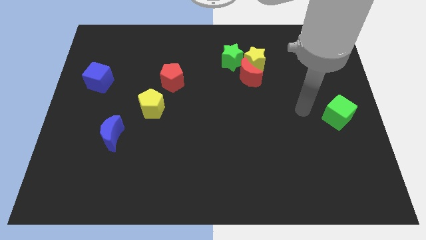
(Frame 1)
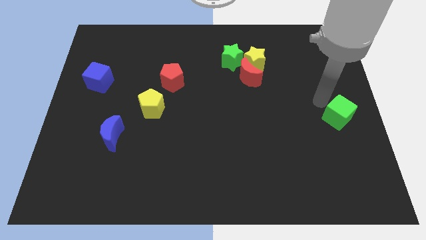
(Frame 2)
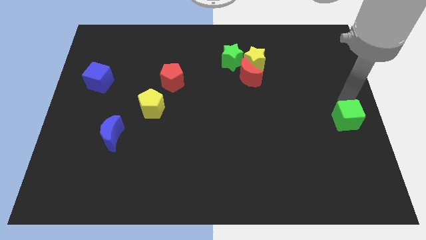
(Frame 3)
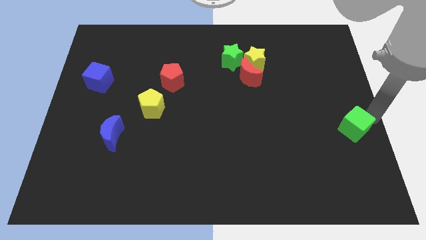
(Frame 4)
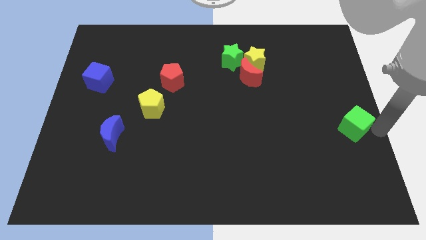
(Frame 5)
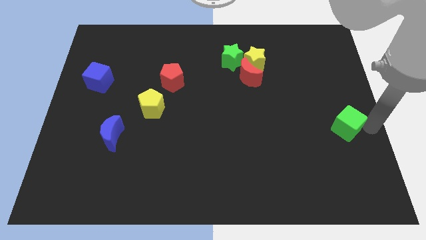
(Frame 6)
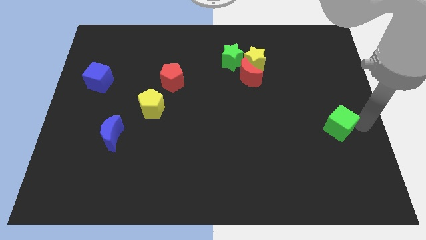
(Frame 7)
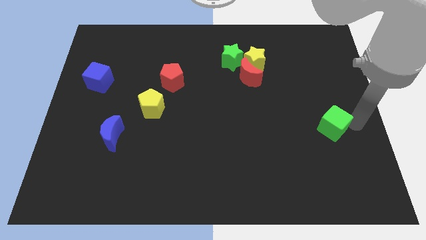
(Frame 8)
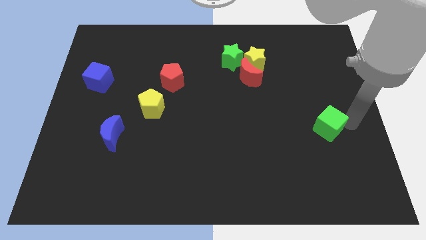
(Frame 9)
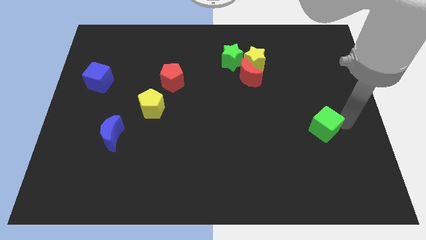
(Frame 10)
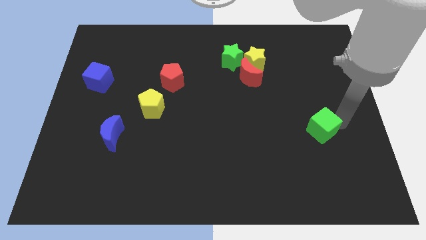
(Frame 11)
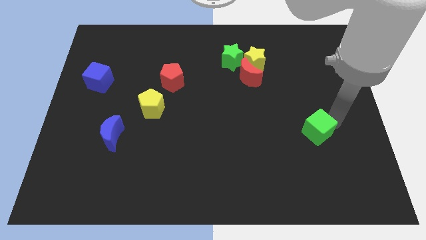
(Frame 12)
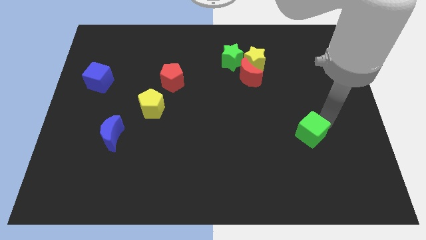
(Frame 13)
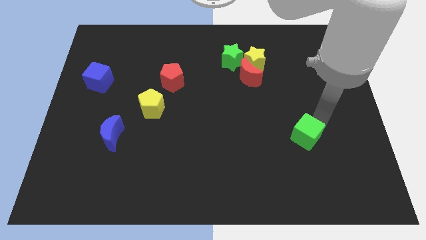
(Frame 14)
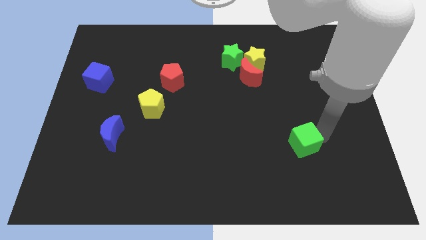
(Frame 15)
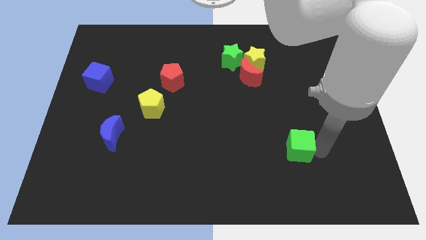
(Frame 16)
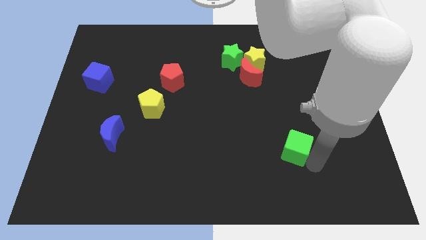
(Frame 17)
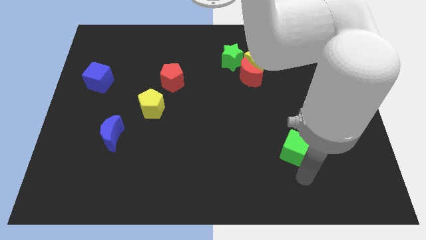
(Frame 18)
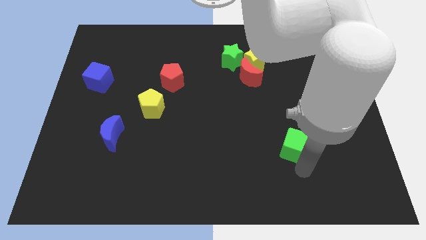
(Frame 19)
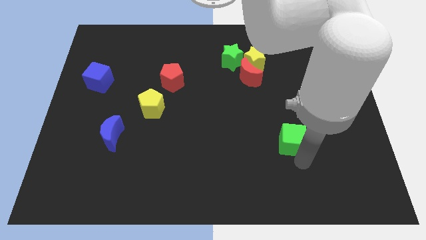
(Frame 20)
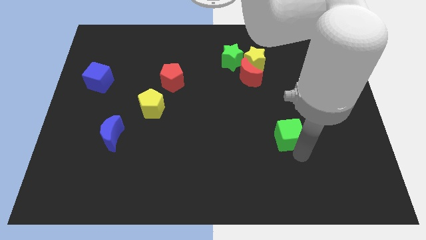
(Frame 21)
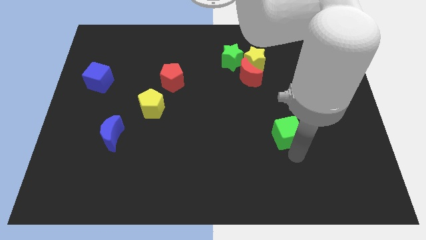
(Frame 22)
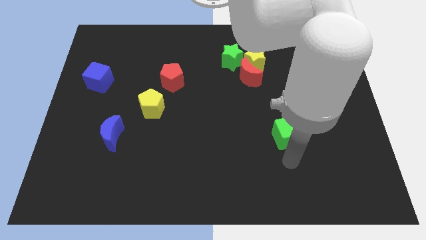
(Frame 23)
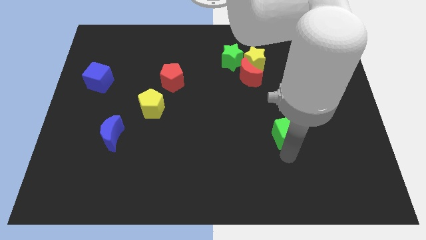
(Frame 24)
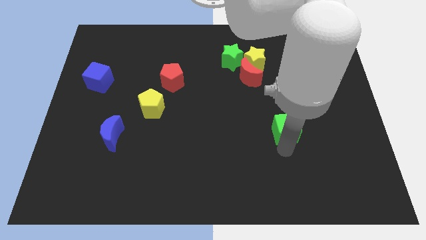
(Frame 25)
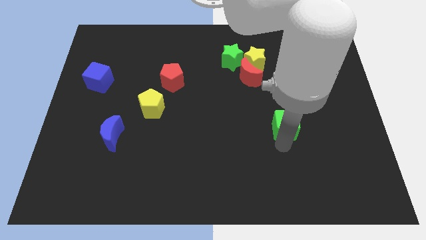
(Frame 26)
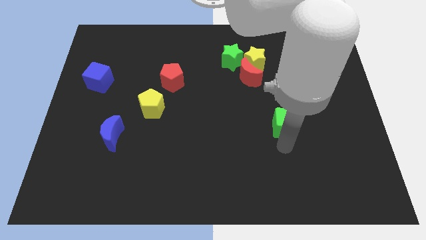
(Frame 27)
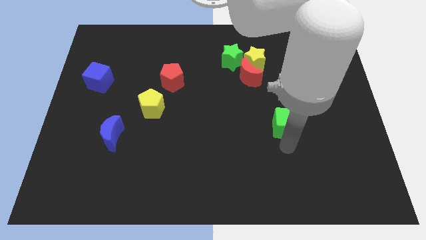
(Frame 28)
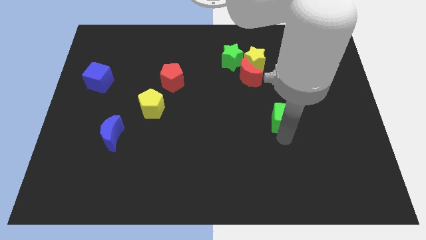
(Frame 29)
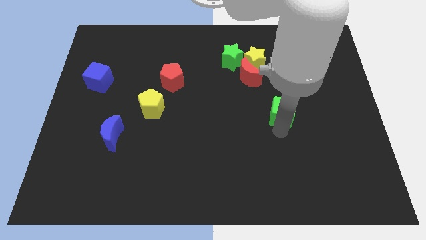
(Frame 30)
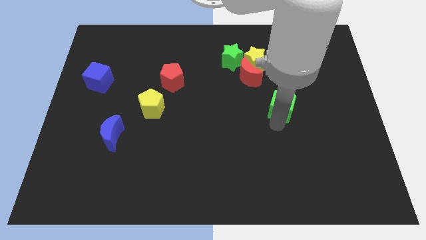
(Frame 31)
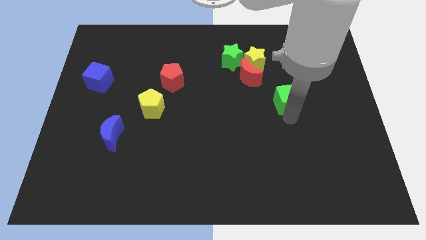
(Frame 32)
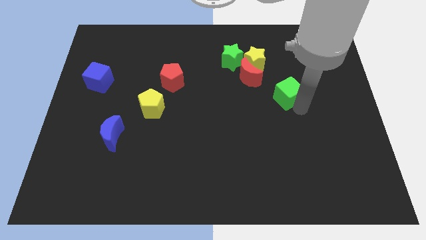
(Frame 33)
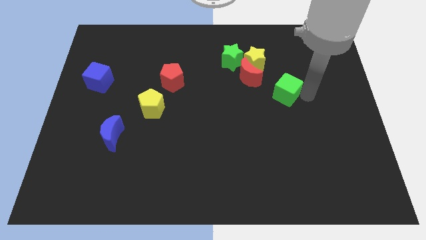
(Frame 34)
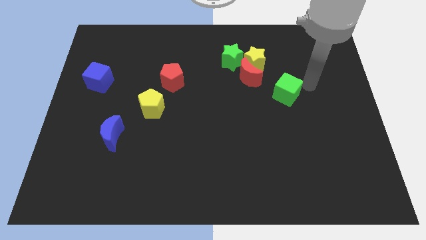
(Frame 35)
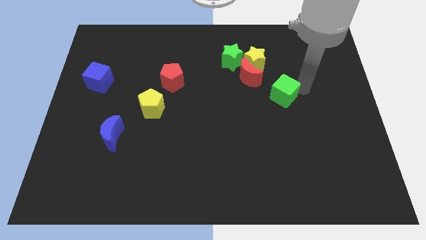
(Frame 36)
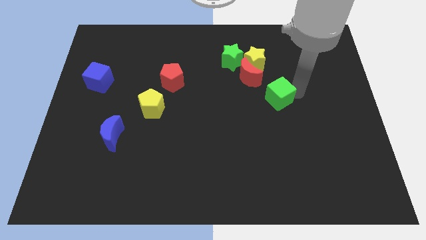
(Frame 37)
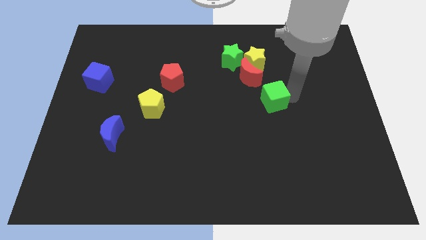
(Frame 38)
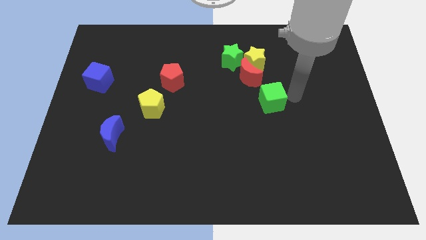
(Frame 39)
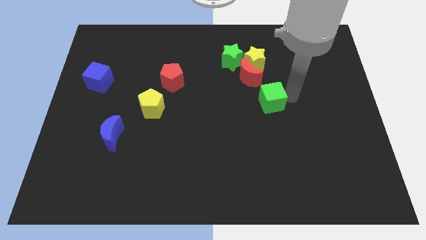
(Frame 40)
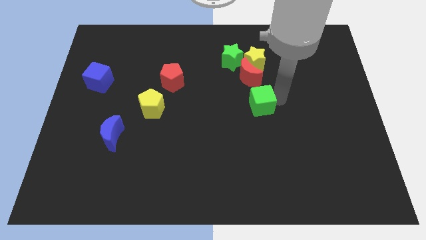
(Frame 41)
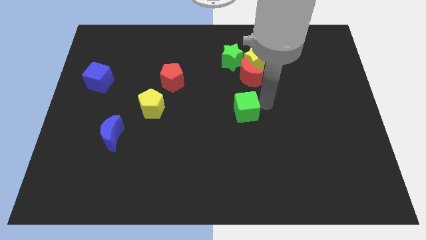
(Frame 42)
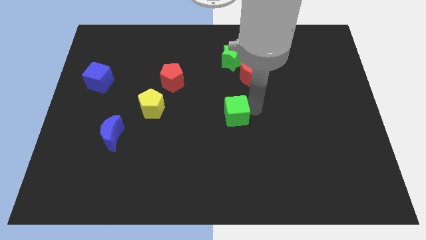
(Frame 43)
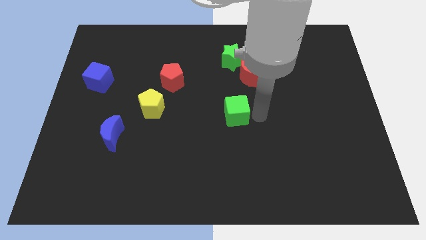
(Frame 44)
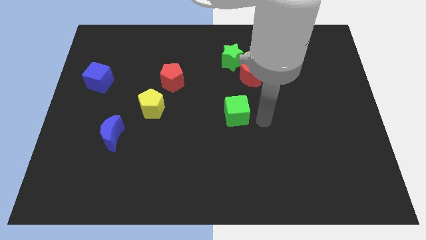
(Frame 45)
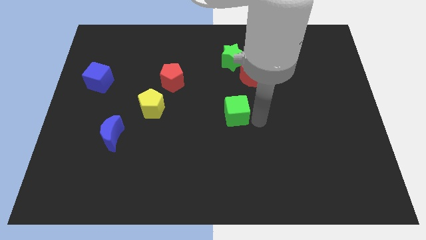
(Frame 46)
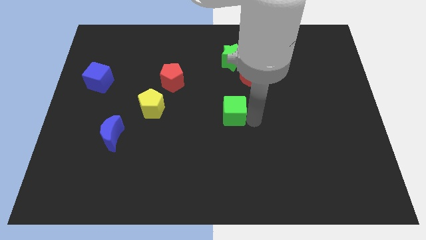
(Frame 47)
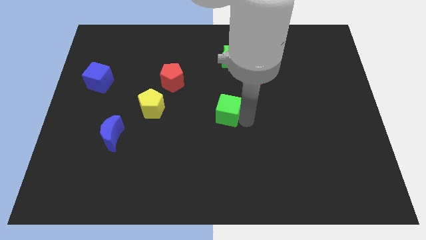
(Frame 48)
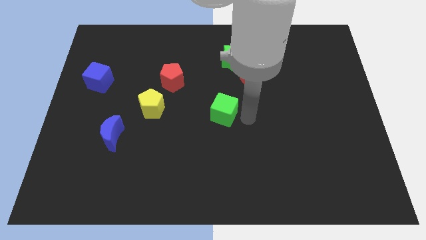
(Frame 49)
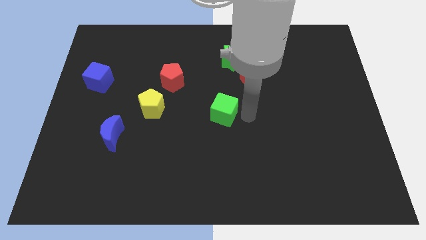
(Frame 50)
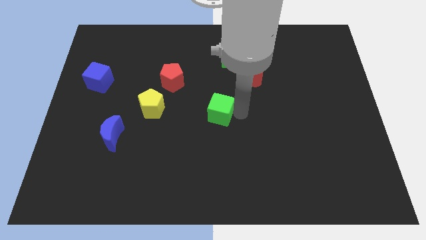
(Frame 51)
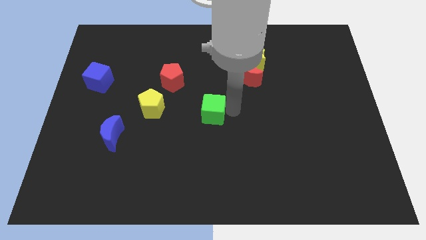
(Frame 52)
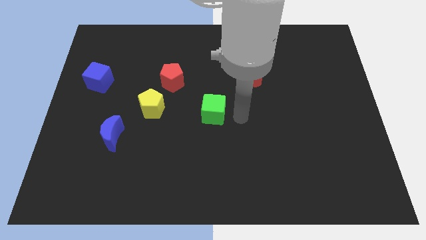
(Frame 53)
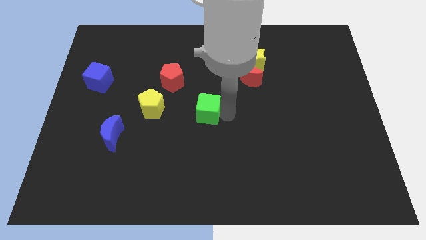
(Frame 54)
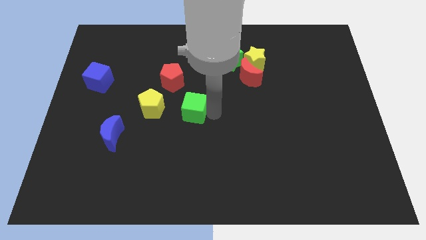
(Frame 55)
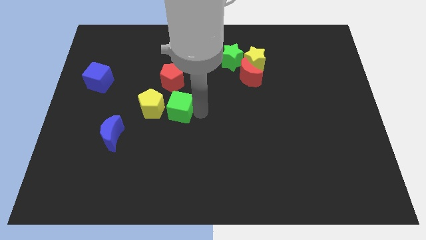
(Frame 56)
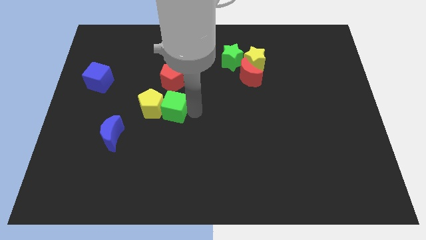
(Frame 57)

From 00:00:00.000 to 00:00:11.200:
move the green cube close to the yellow pentagon

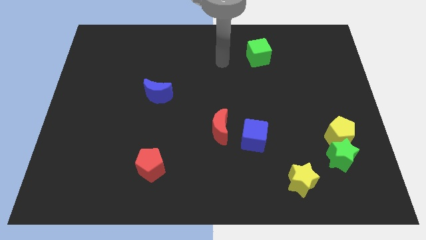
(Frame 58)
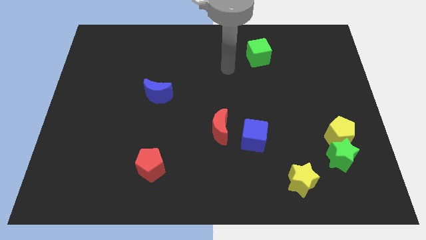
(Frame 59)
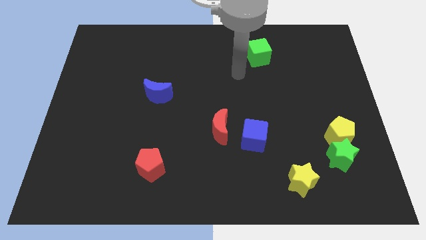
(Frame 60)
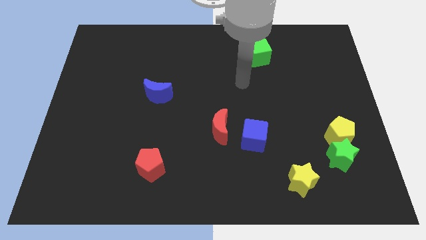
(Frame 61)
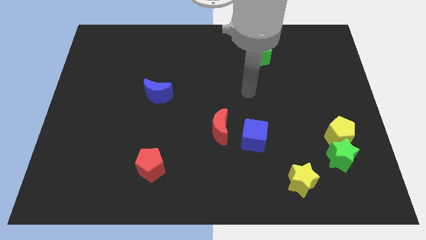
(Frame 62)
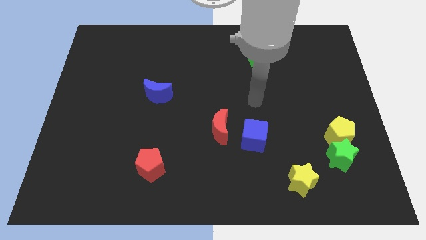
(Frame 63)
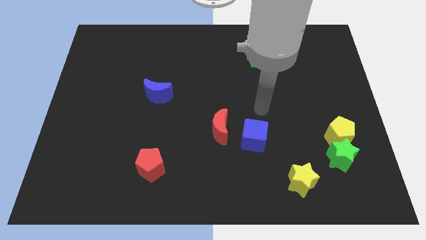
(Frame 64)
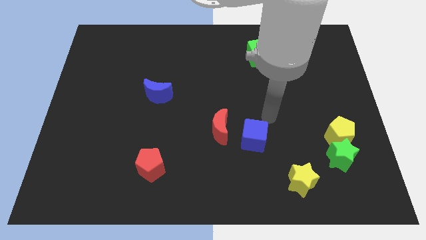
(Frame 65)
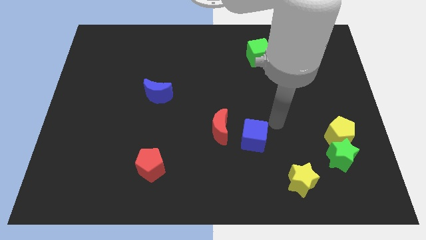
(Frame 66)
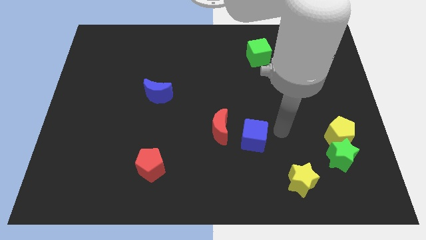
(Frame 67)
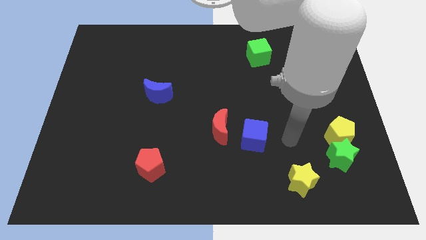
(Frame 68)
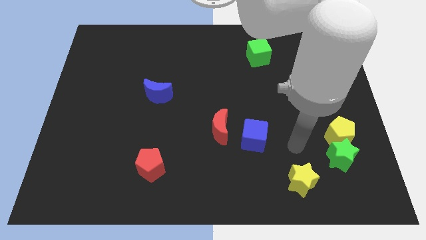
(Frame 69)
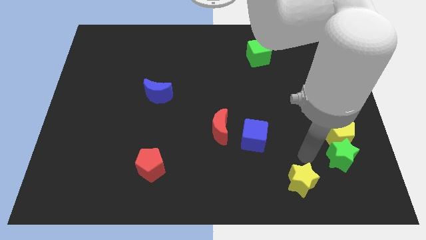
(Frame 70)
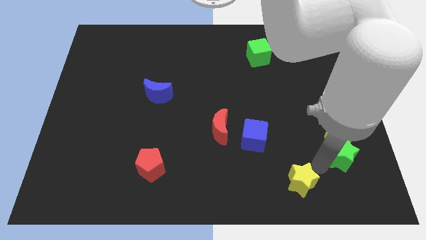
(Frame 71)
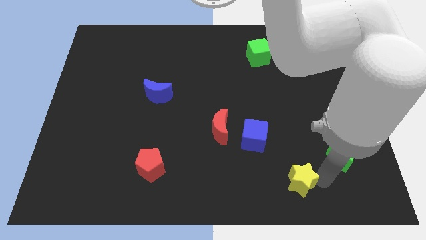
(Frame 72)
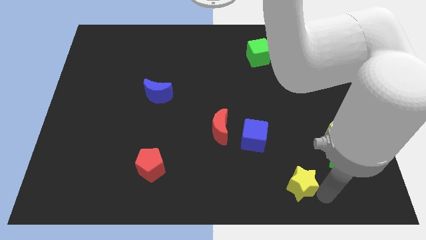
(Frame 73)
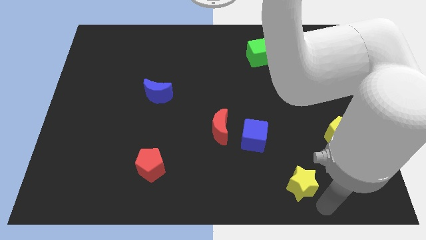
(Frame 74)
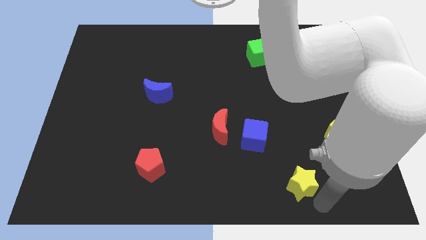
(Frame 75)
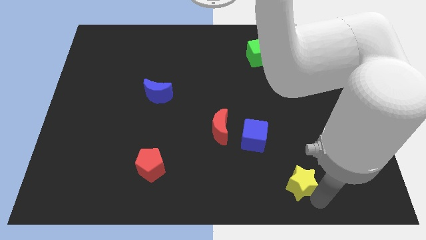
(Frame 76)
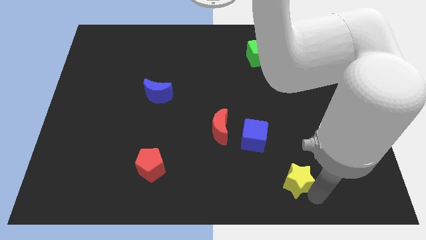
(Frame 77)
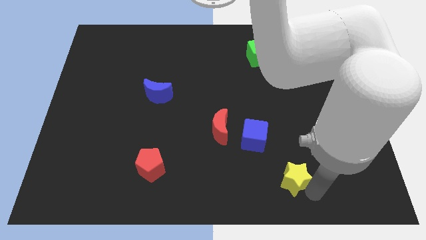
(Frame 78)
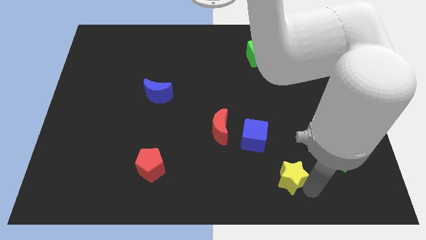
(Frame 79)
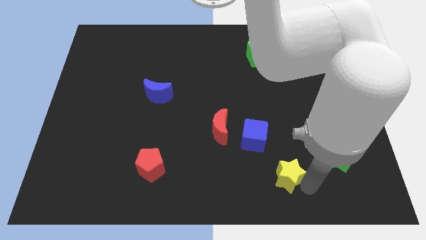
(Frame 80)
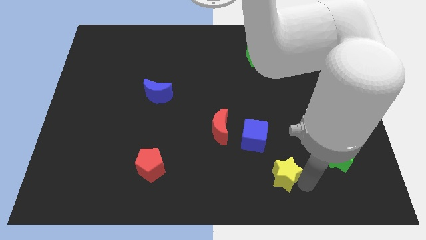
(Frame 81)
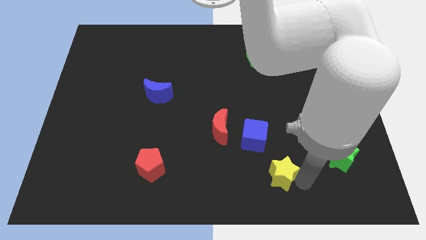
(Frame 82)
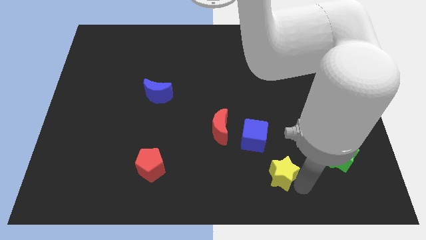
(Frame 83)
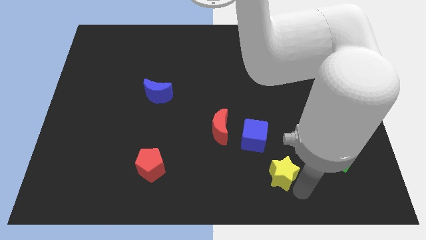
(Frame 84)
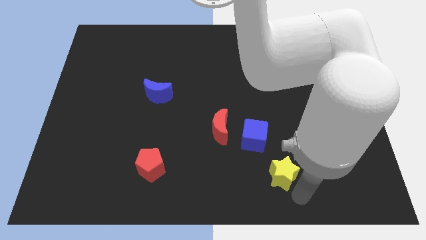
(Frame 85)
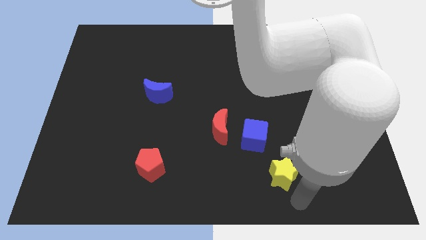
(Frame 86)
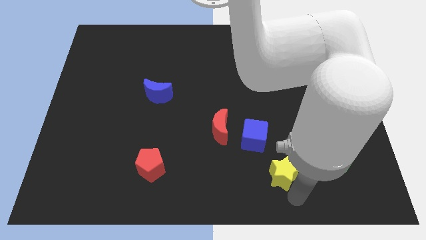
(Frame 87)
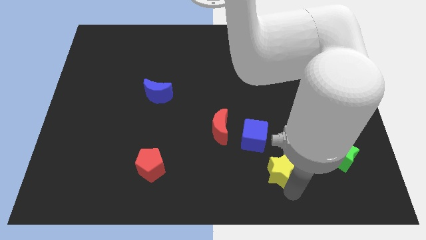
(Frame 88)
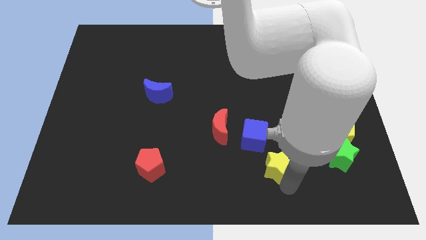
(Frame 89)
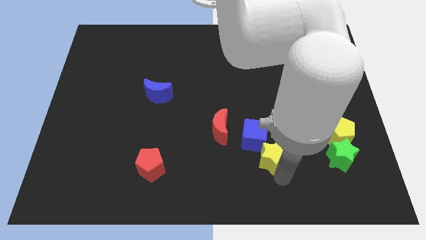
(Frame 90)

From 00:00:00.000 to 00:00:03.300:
put the yellow star to the blue cube
